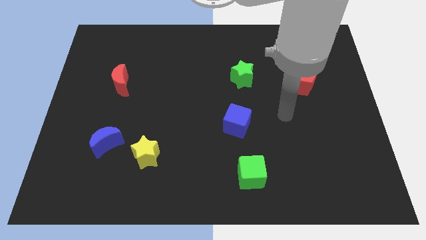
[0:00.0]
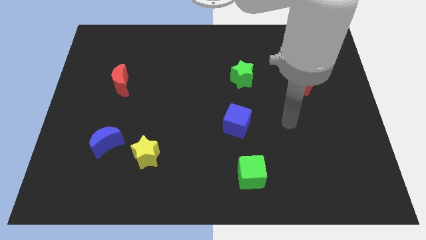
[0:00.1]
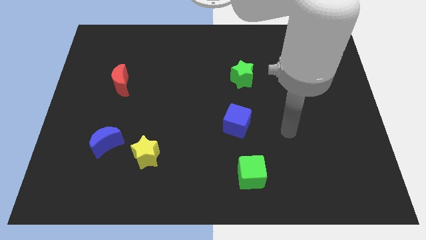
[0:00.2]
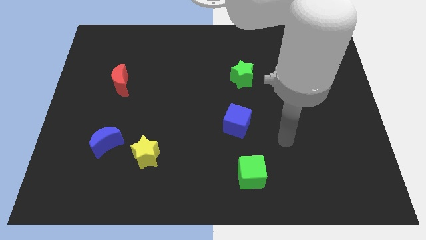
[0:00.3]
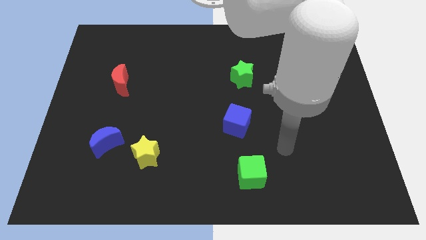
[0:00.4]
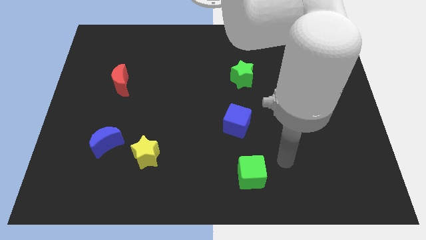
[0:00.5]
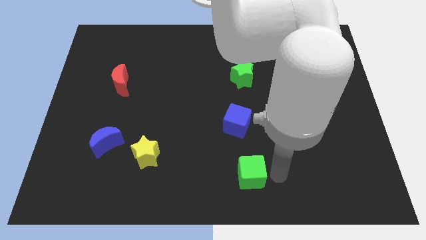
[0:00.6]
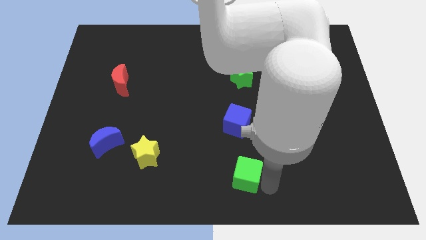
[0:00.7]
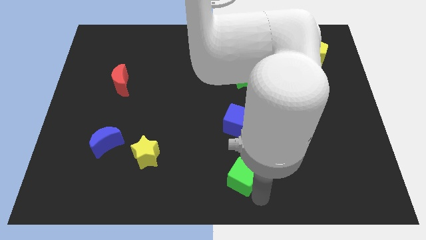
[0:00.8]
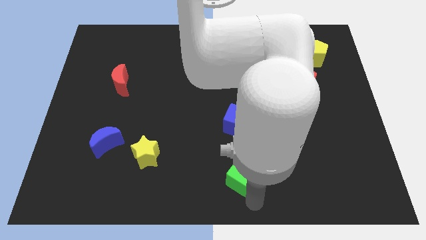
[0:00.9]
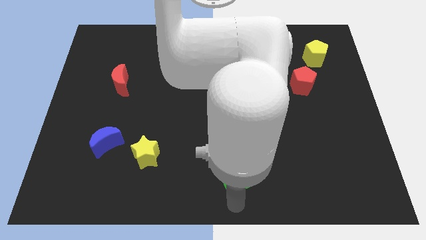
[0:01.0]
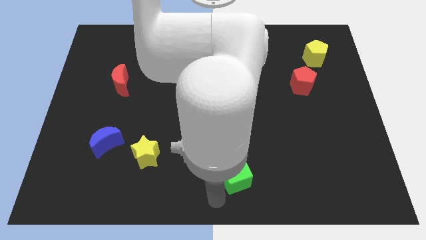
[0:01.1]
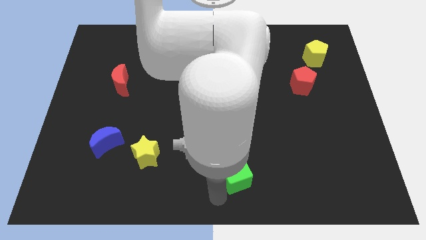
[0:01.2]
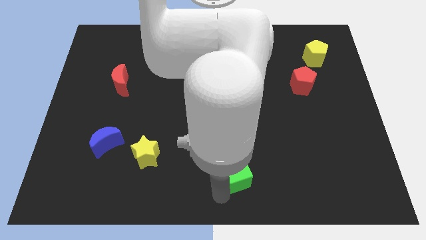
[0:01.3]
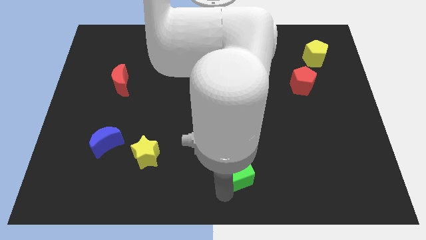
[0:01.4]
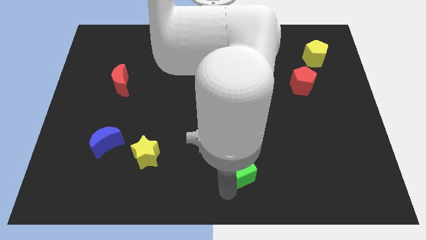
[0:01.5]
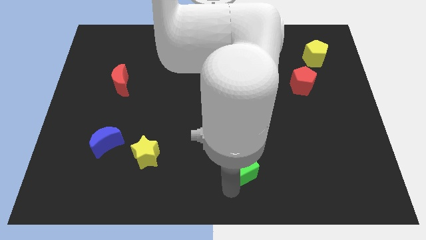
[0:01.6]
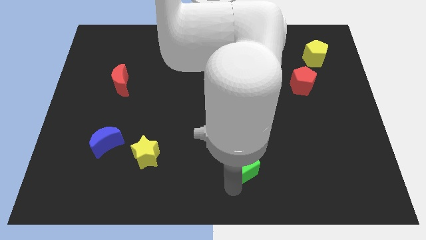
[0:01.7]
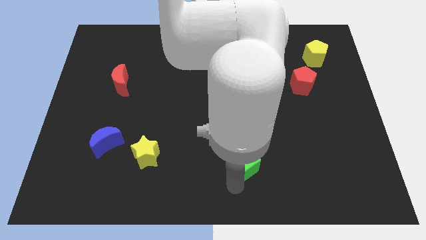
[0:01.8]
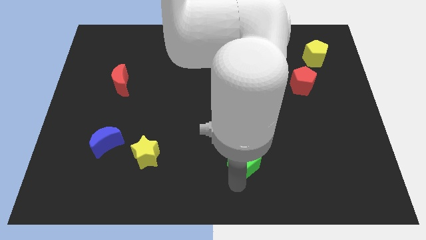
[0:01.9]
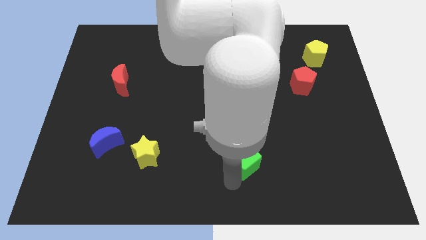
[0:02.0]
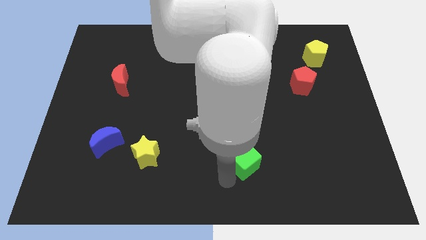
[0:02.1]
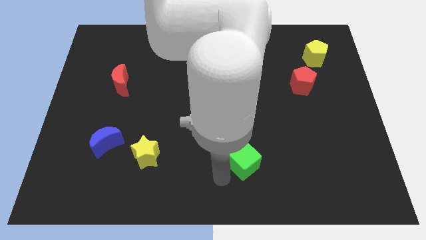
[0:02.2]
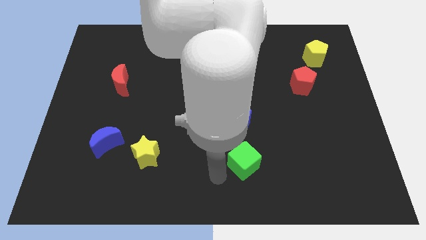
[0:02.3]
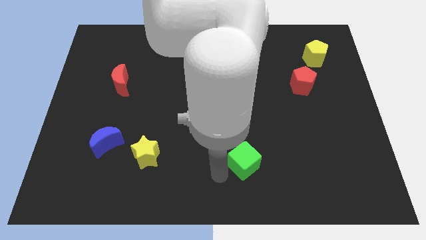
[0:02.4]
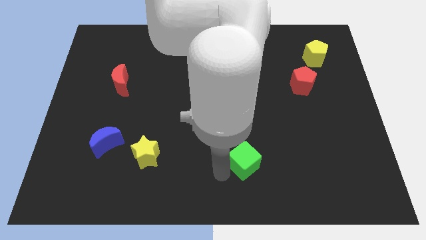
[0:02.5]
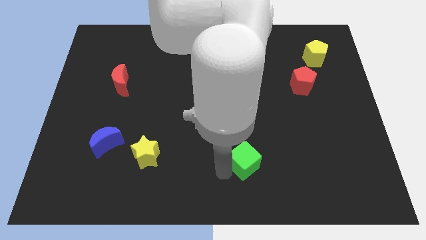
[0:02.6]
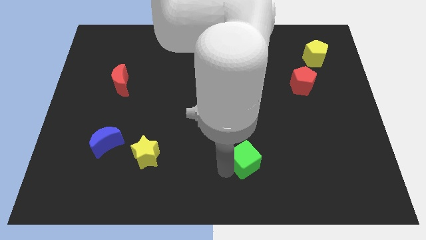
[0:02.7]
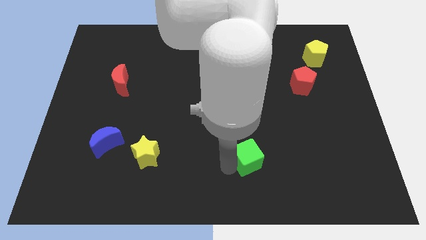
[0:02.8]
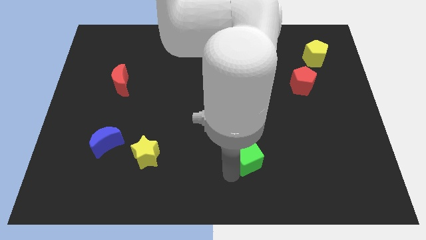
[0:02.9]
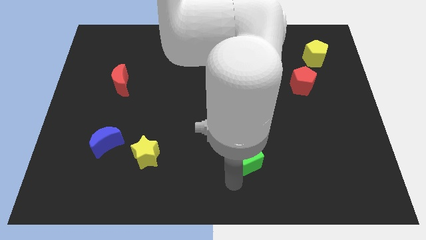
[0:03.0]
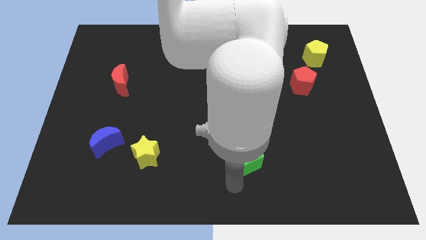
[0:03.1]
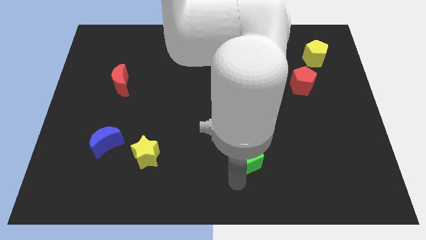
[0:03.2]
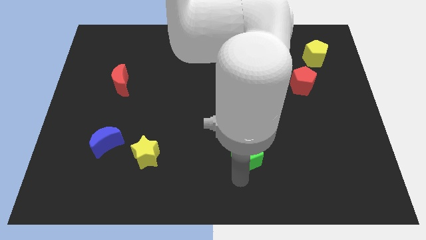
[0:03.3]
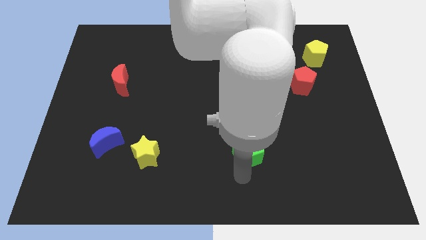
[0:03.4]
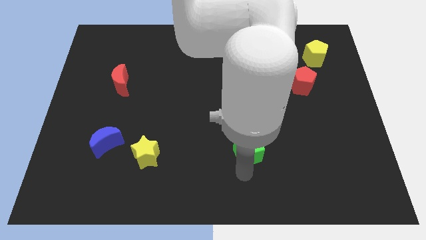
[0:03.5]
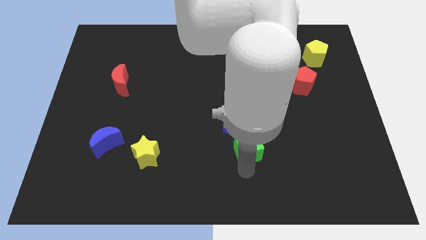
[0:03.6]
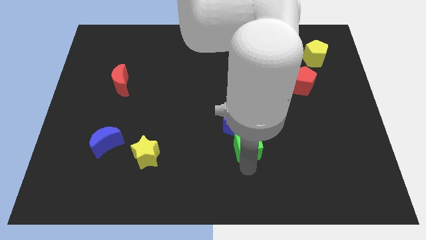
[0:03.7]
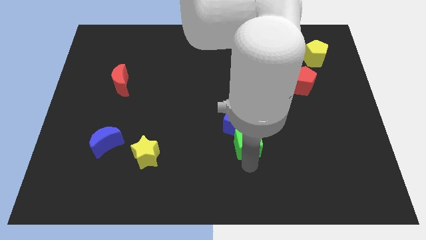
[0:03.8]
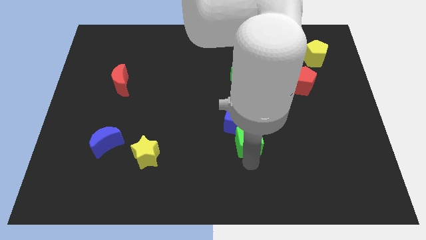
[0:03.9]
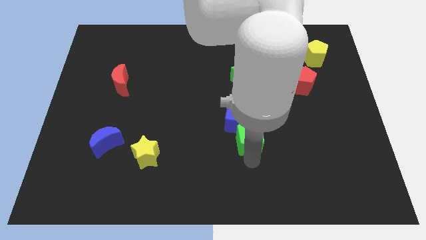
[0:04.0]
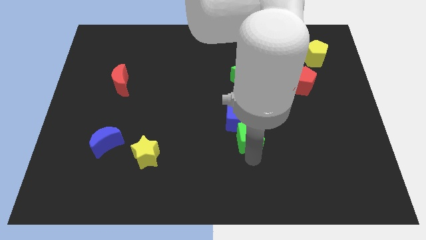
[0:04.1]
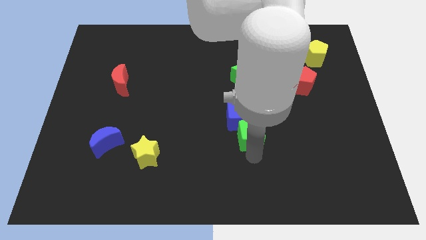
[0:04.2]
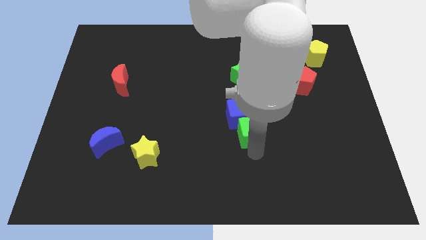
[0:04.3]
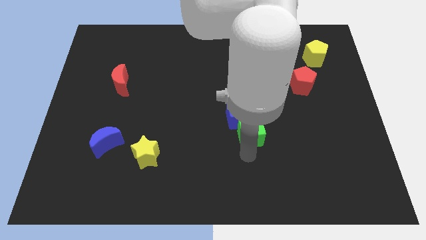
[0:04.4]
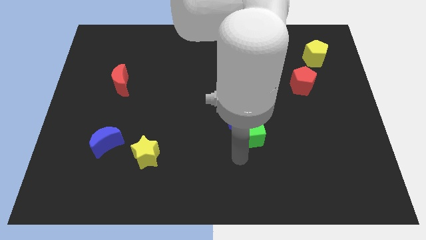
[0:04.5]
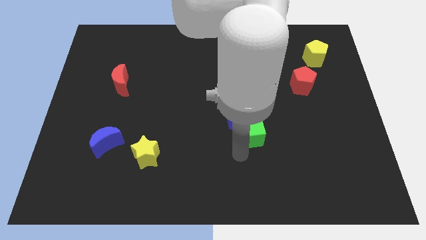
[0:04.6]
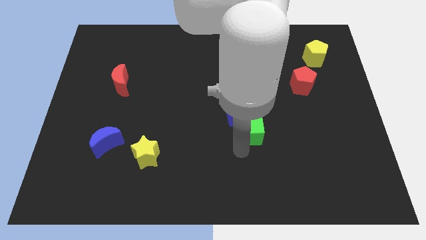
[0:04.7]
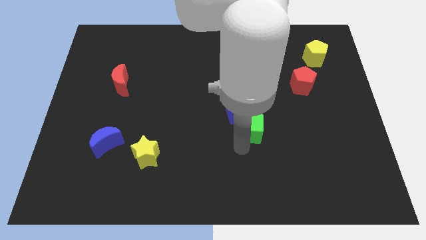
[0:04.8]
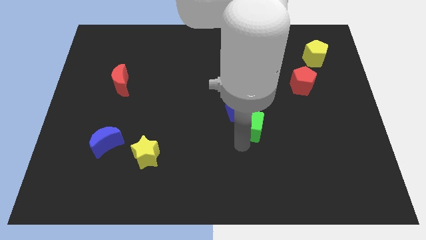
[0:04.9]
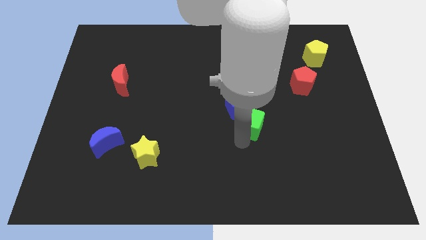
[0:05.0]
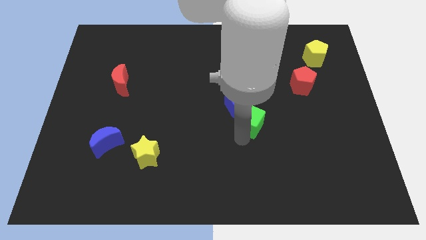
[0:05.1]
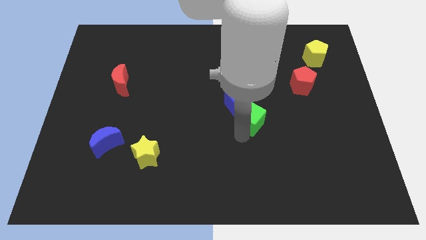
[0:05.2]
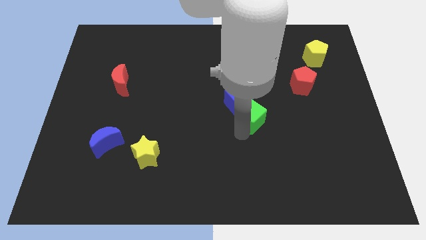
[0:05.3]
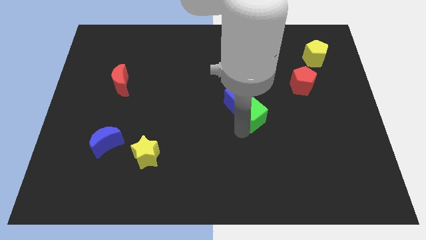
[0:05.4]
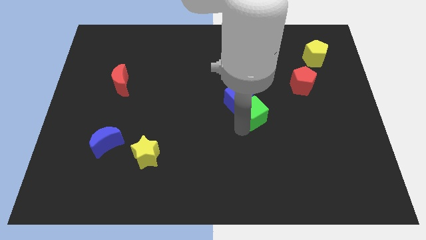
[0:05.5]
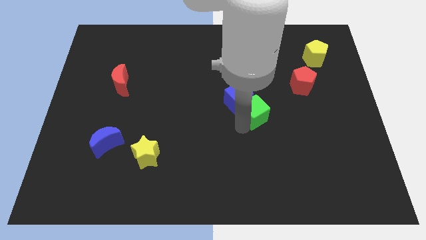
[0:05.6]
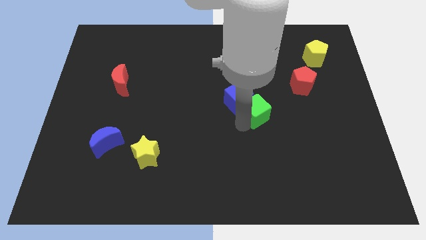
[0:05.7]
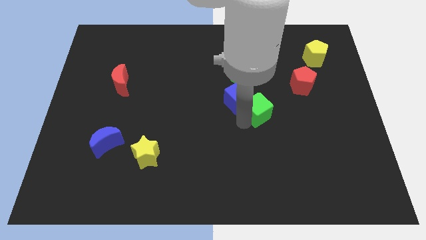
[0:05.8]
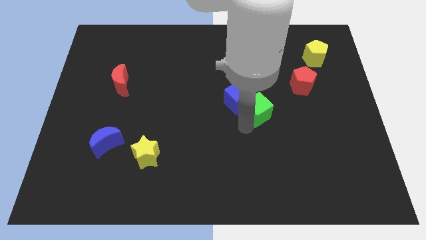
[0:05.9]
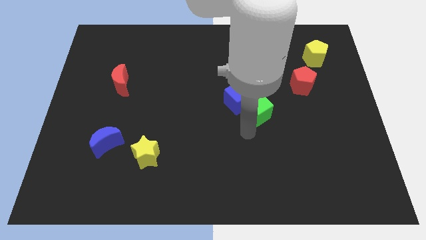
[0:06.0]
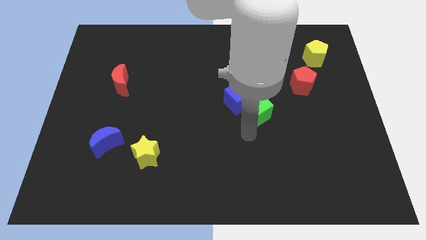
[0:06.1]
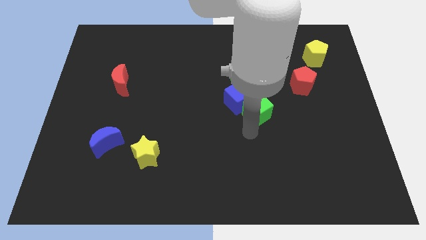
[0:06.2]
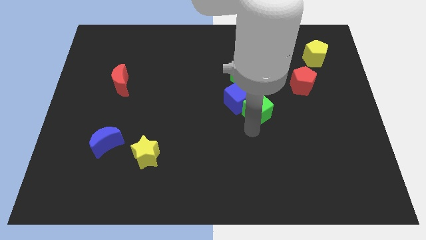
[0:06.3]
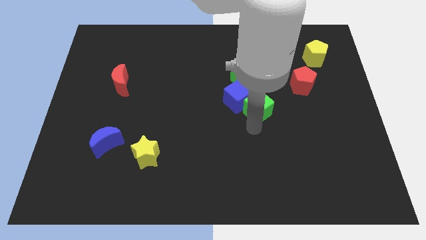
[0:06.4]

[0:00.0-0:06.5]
push the green cube to the bottom right of the green star

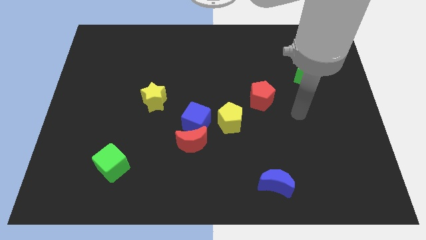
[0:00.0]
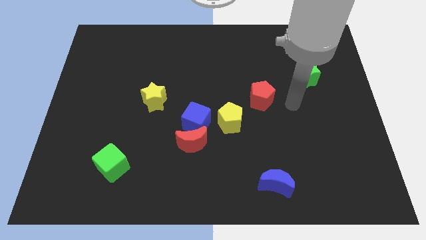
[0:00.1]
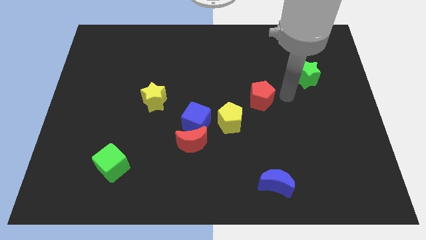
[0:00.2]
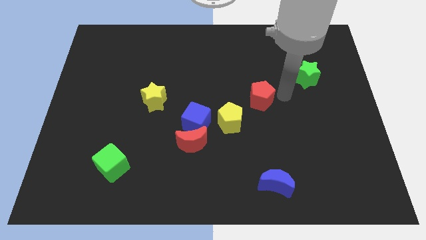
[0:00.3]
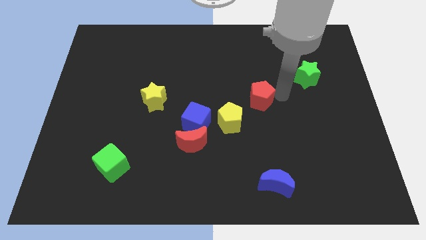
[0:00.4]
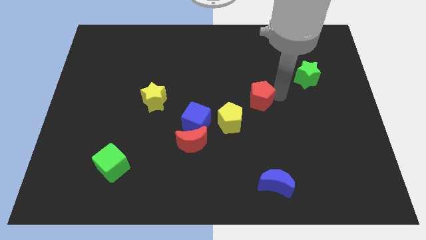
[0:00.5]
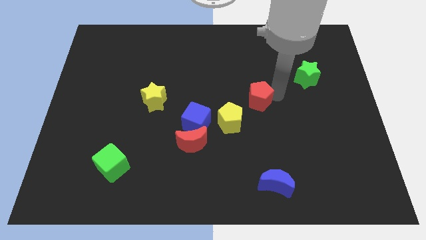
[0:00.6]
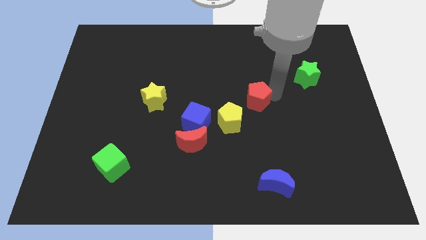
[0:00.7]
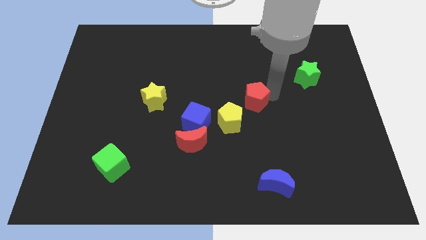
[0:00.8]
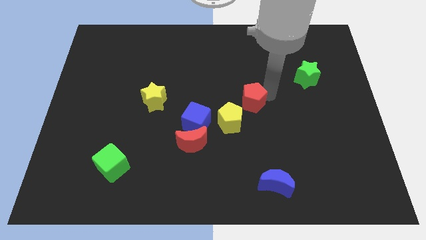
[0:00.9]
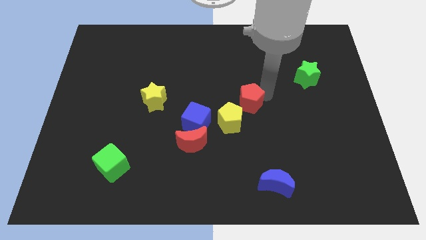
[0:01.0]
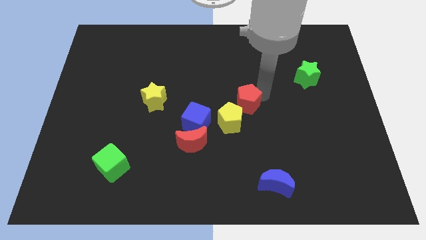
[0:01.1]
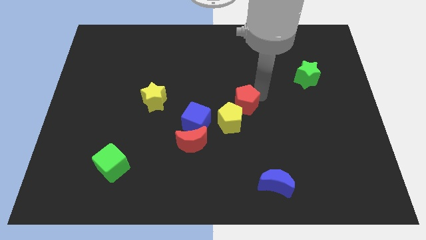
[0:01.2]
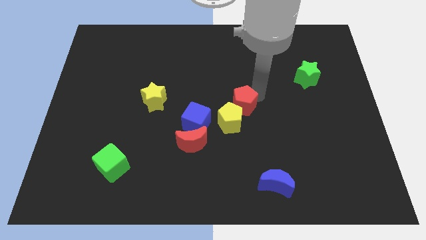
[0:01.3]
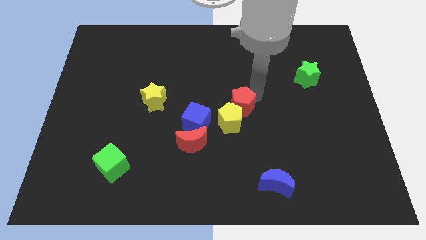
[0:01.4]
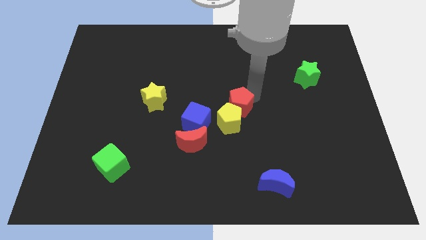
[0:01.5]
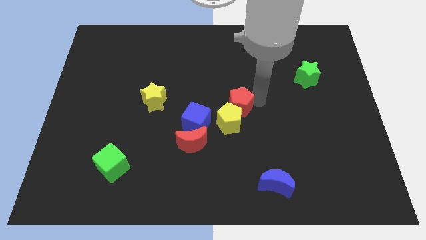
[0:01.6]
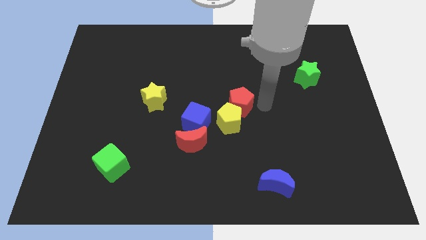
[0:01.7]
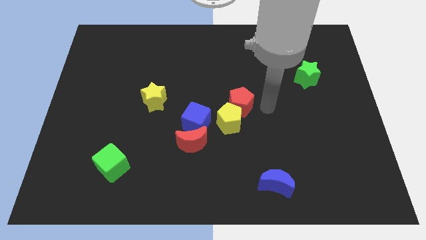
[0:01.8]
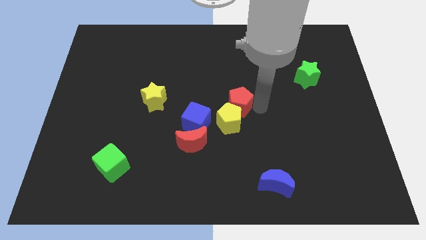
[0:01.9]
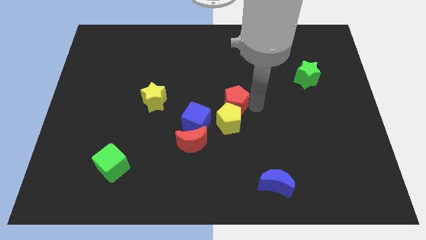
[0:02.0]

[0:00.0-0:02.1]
slide the red pentagon to the top left of the yellow pentagon
